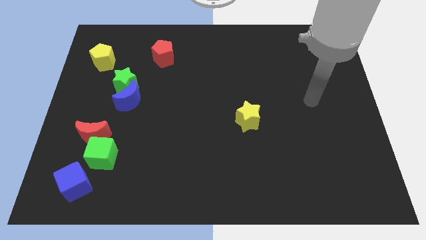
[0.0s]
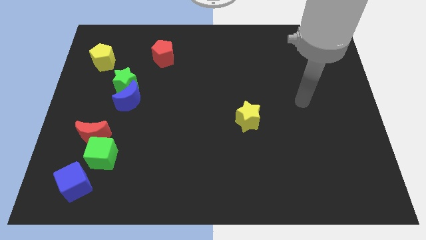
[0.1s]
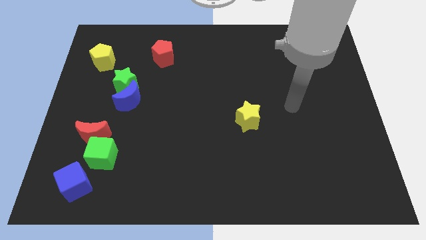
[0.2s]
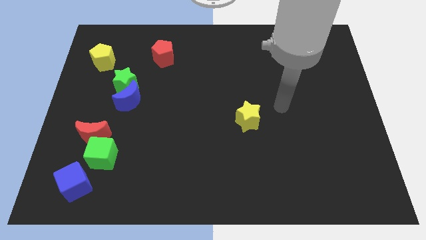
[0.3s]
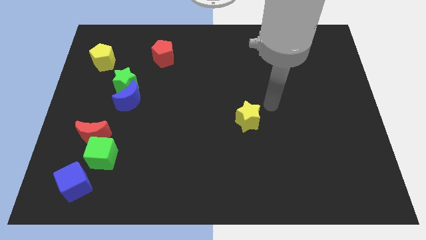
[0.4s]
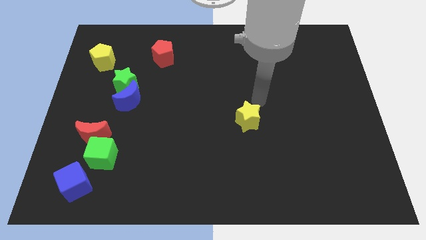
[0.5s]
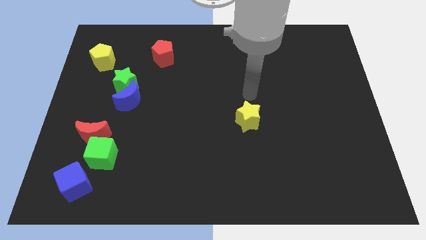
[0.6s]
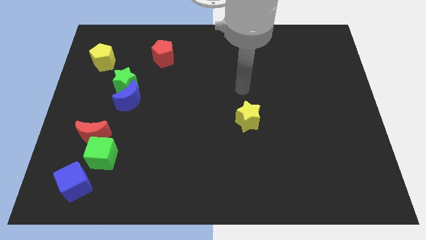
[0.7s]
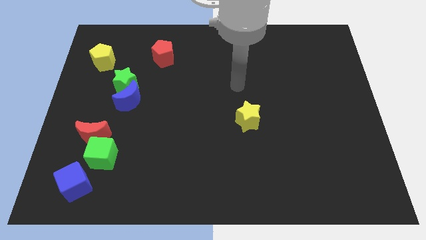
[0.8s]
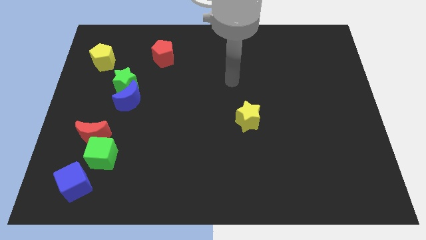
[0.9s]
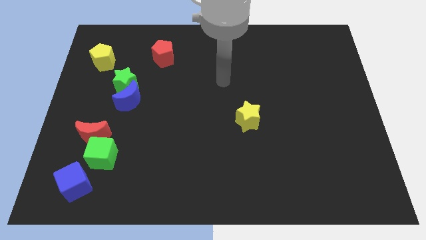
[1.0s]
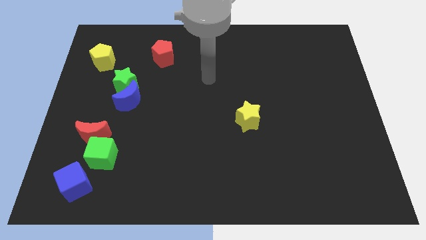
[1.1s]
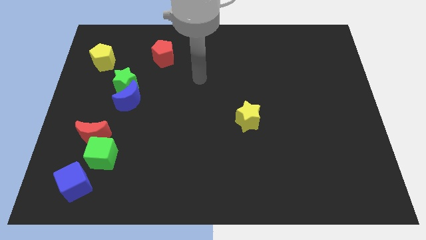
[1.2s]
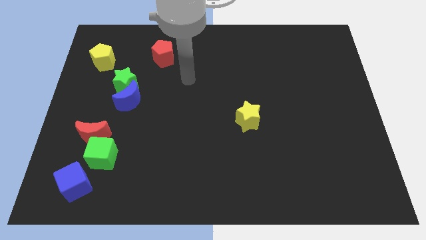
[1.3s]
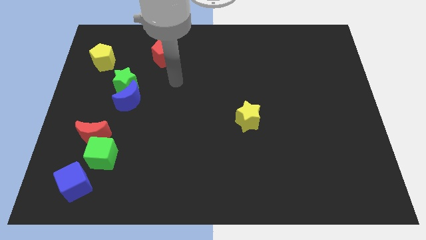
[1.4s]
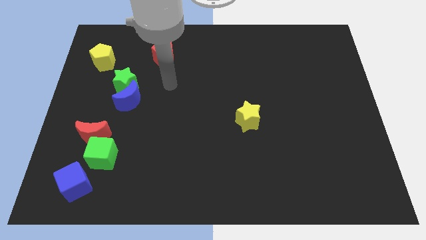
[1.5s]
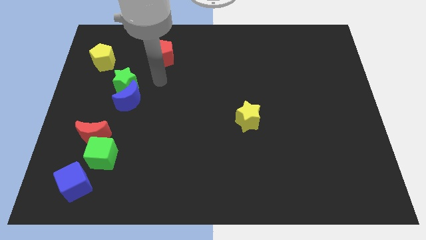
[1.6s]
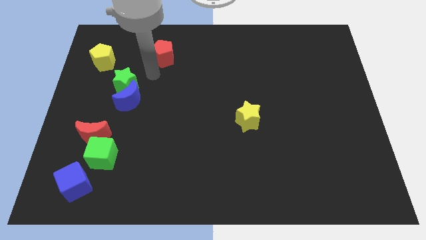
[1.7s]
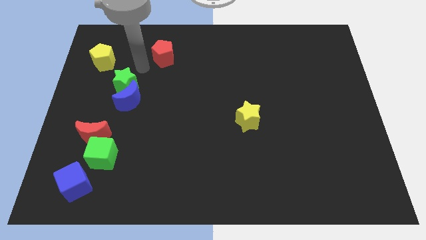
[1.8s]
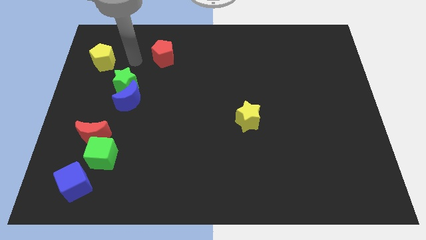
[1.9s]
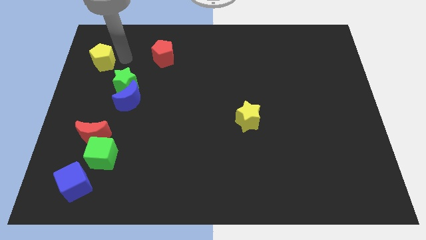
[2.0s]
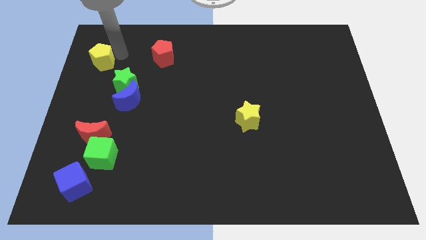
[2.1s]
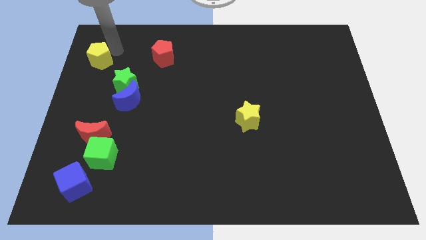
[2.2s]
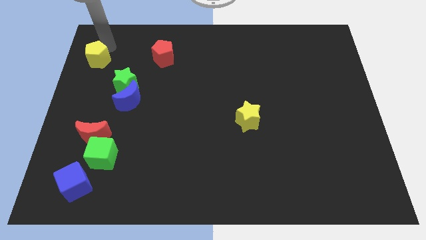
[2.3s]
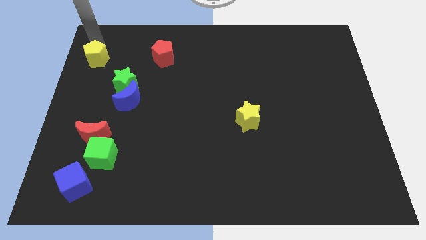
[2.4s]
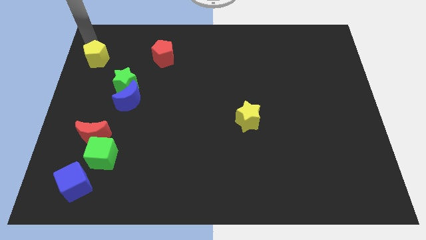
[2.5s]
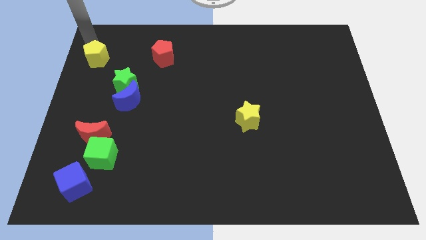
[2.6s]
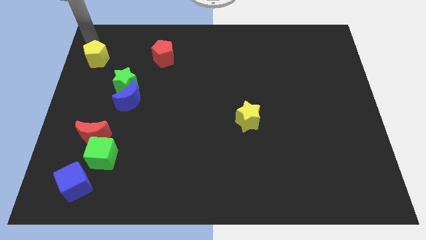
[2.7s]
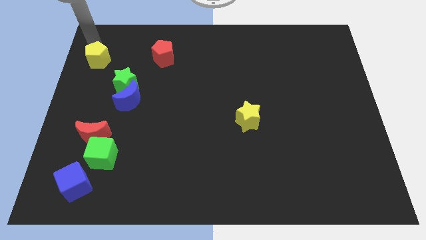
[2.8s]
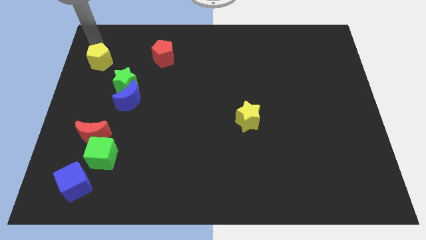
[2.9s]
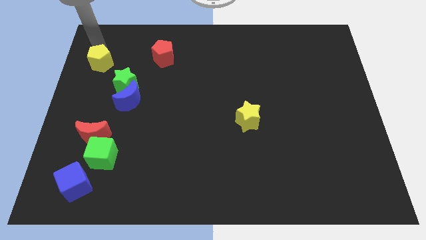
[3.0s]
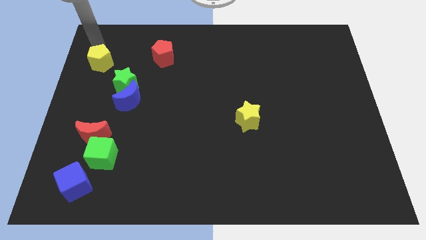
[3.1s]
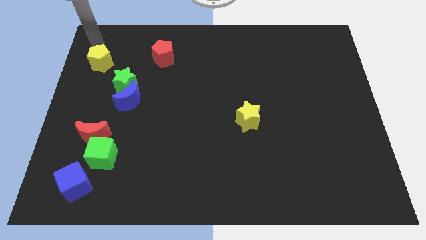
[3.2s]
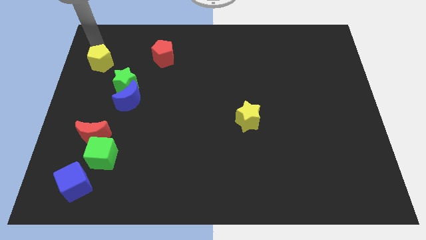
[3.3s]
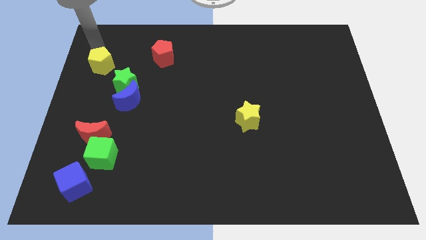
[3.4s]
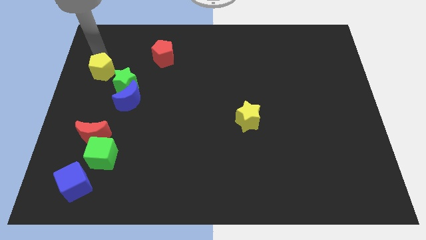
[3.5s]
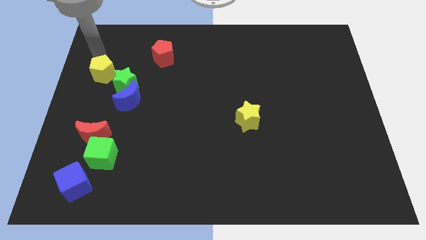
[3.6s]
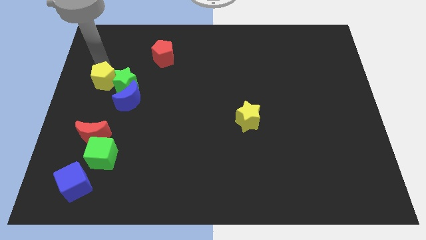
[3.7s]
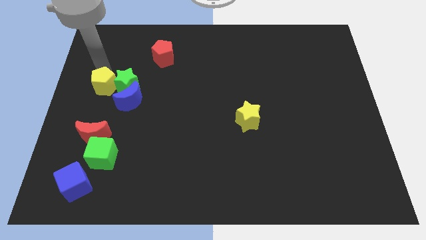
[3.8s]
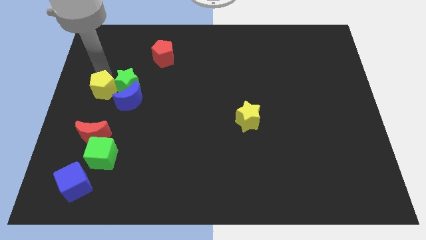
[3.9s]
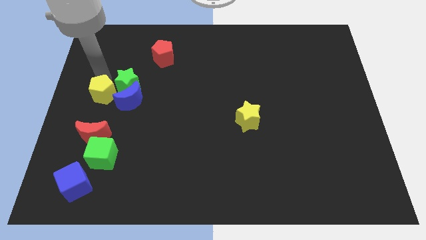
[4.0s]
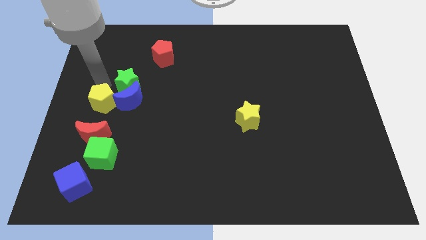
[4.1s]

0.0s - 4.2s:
push the yellow pentagon to the top side of the green cube

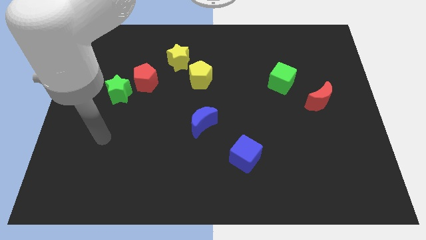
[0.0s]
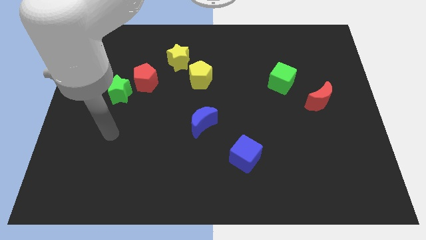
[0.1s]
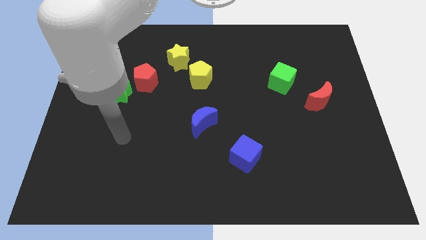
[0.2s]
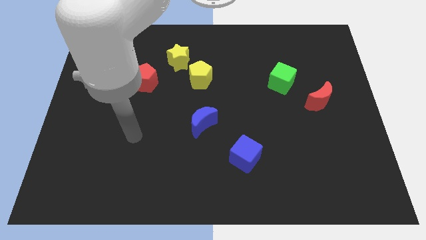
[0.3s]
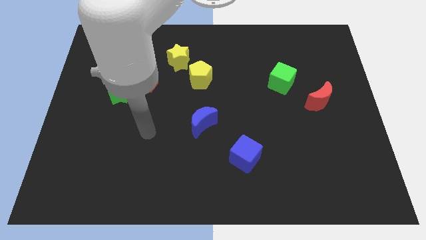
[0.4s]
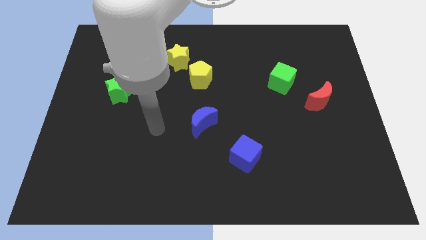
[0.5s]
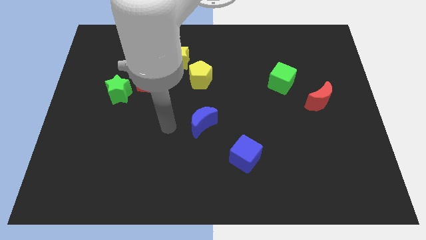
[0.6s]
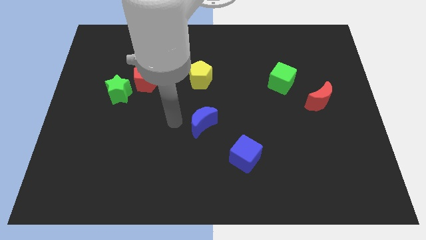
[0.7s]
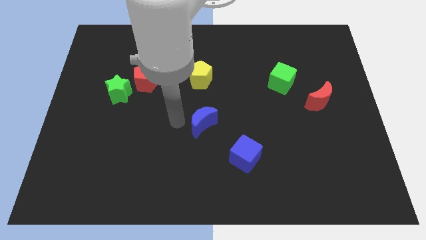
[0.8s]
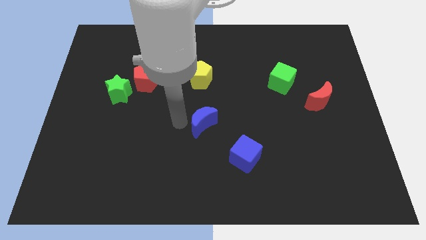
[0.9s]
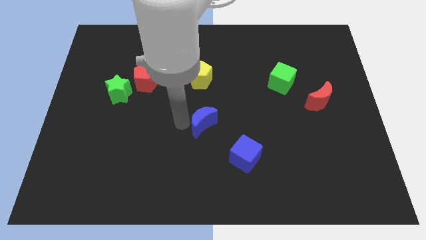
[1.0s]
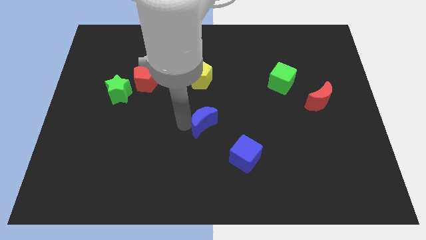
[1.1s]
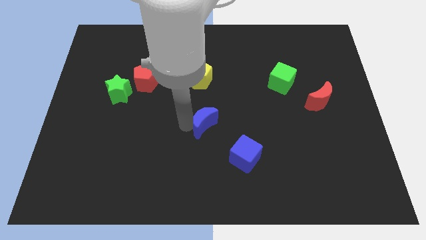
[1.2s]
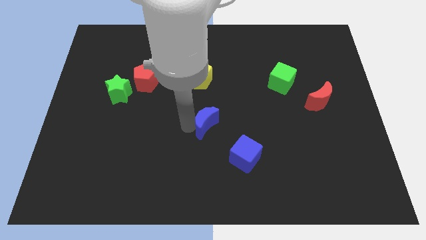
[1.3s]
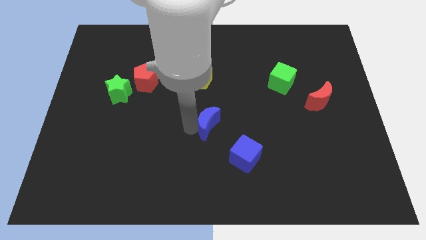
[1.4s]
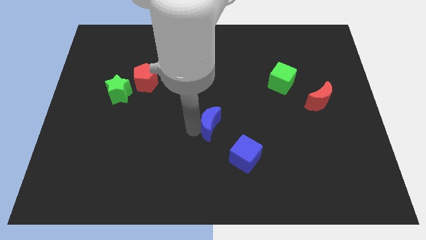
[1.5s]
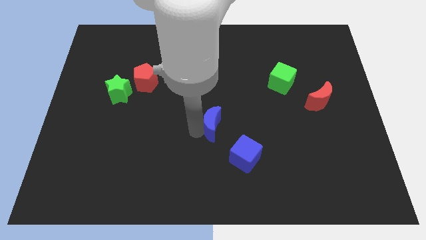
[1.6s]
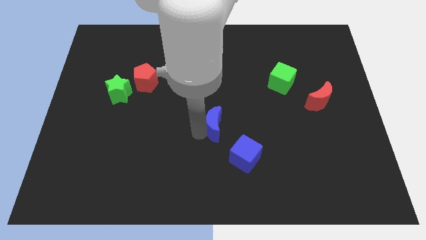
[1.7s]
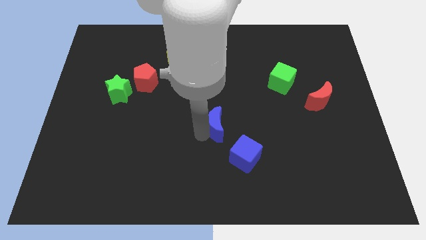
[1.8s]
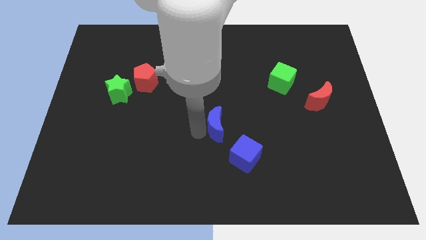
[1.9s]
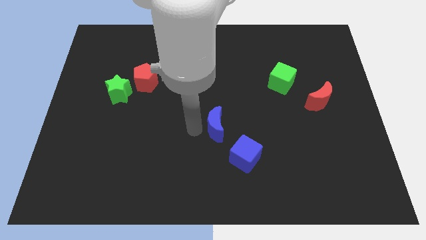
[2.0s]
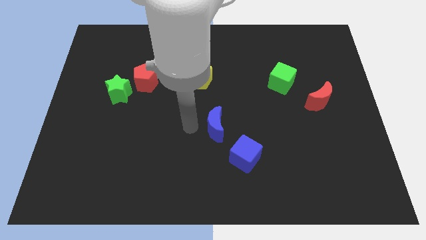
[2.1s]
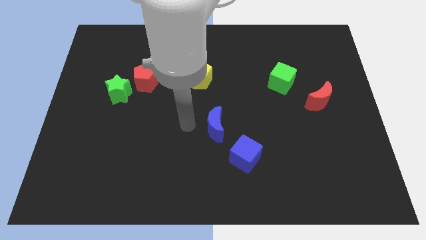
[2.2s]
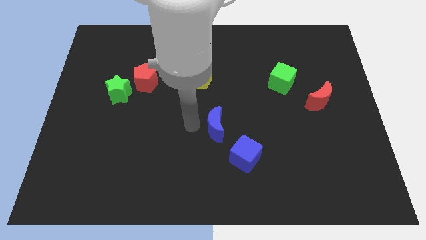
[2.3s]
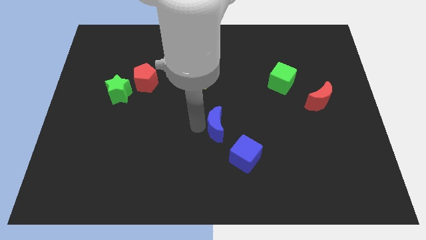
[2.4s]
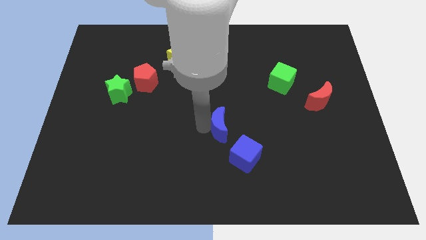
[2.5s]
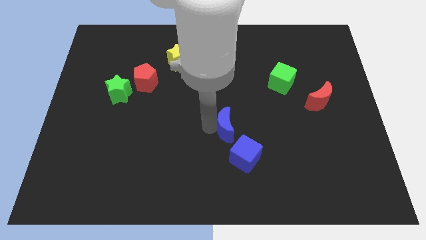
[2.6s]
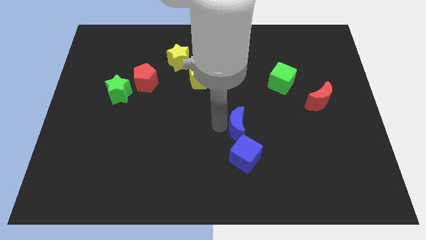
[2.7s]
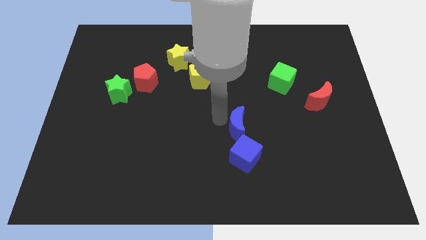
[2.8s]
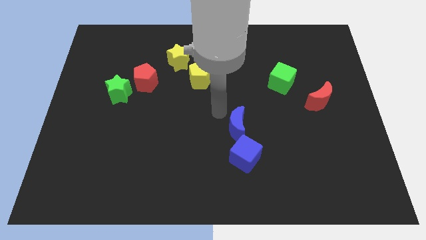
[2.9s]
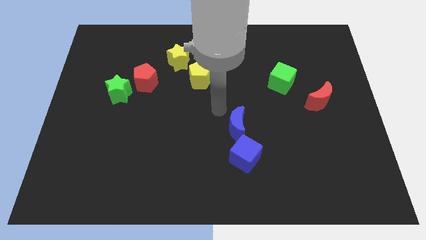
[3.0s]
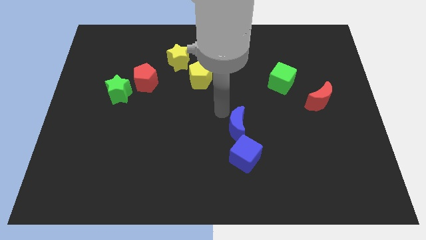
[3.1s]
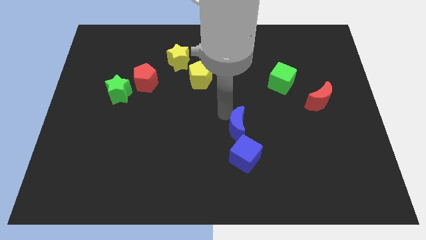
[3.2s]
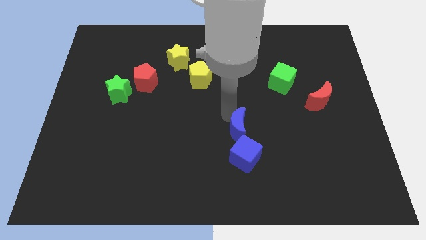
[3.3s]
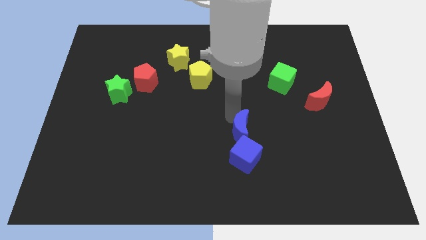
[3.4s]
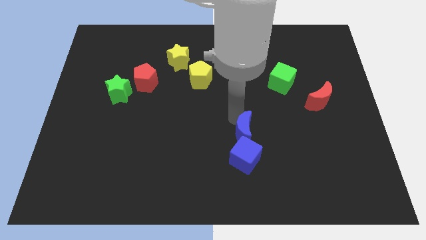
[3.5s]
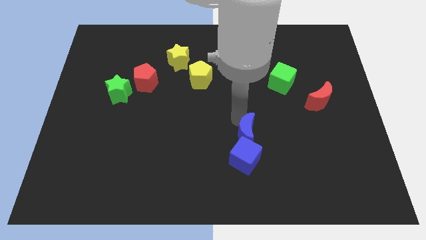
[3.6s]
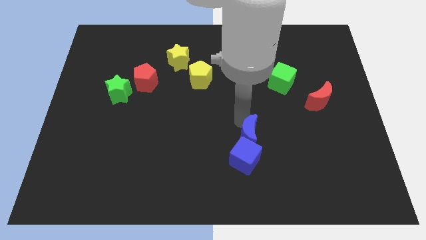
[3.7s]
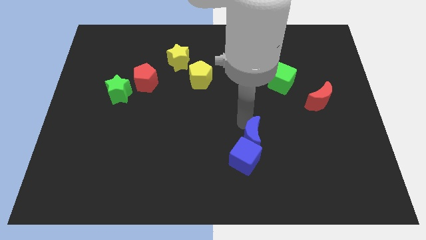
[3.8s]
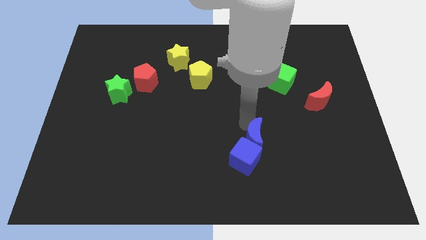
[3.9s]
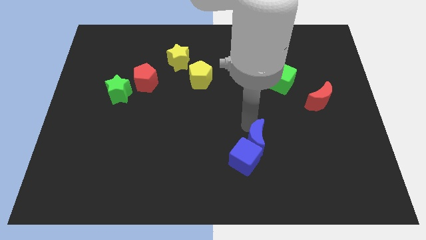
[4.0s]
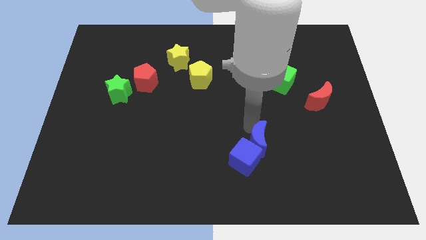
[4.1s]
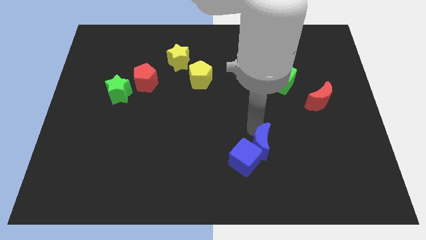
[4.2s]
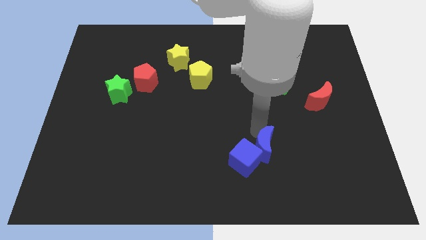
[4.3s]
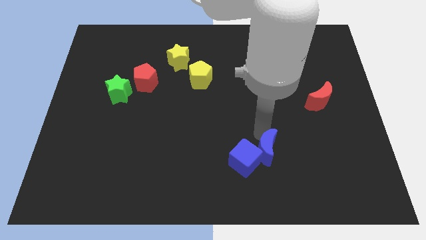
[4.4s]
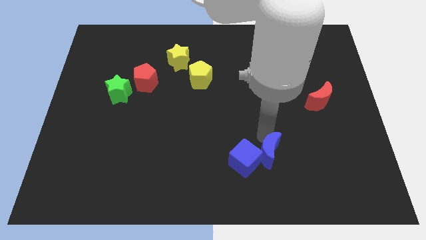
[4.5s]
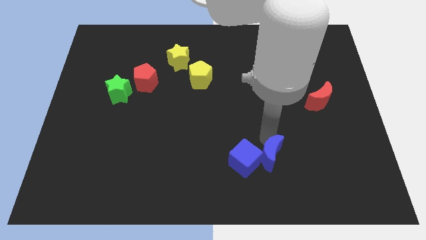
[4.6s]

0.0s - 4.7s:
move the blue moon diagonally down and to the right of the blue cube
